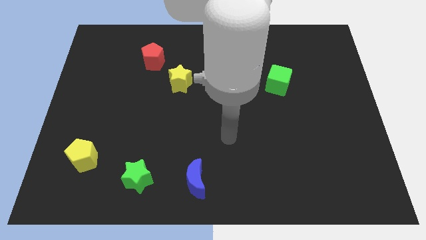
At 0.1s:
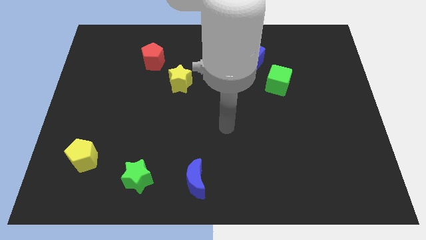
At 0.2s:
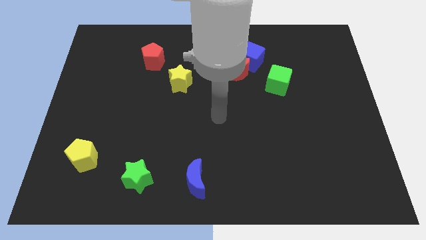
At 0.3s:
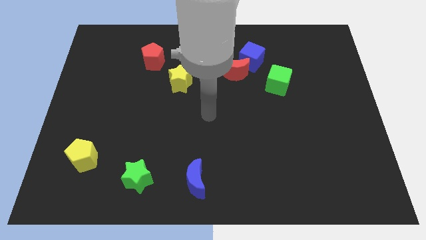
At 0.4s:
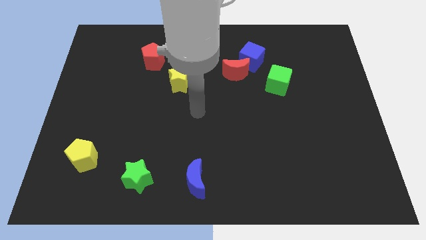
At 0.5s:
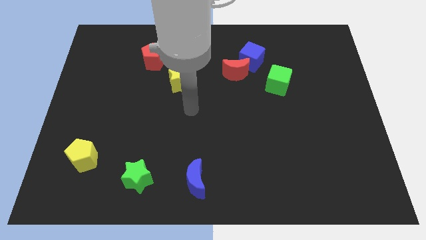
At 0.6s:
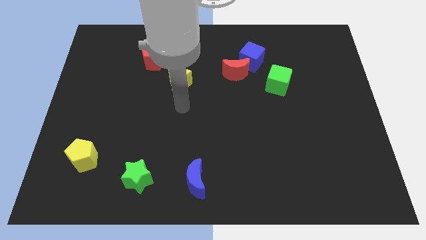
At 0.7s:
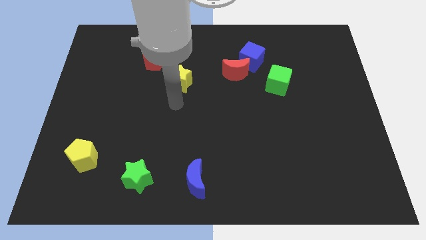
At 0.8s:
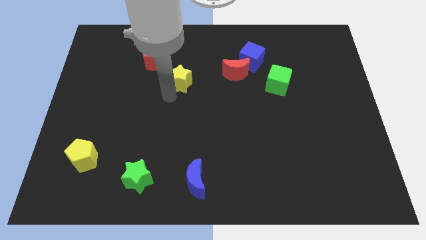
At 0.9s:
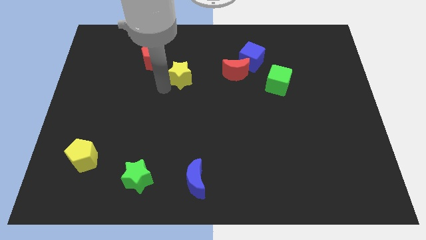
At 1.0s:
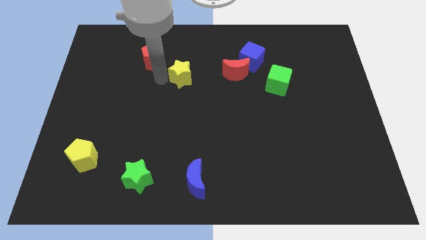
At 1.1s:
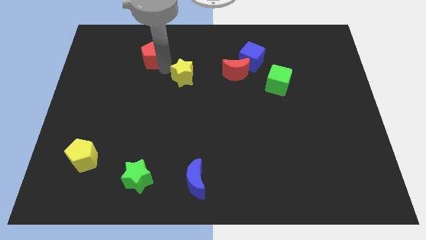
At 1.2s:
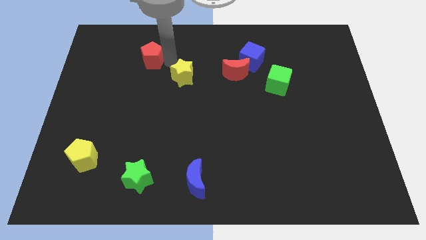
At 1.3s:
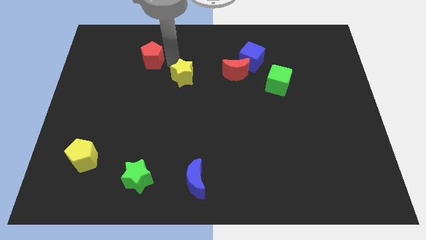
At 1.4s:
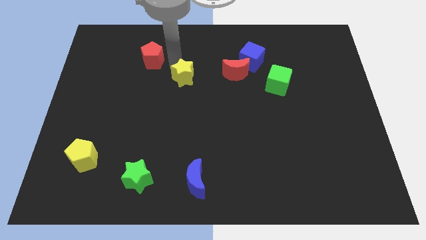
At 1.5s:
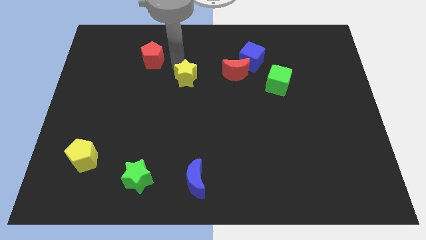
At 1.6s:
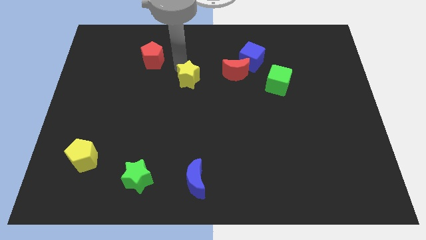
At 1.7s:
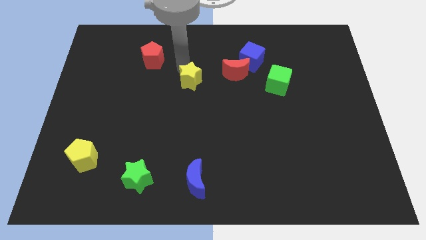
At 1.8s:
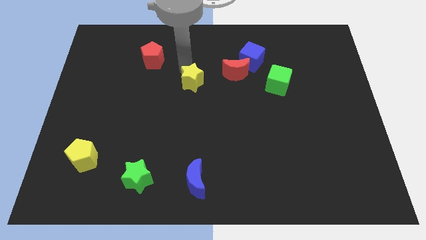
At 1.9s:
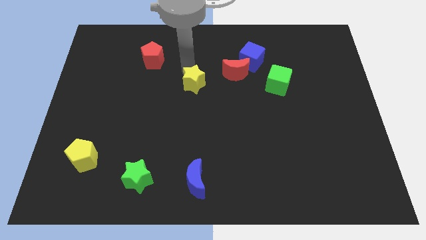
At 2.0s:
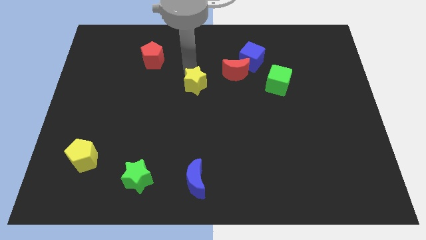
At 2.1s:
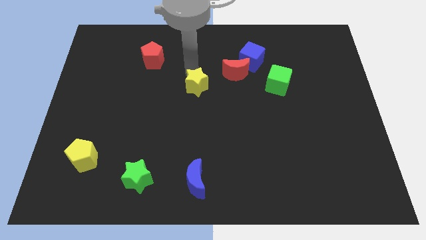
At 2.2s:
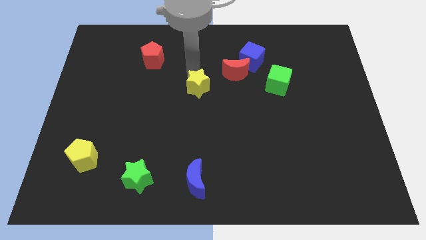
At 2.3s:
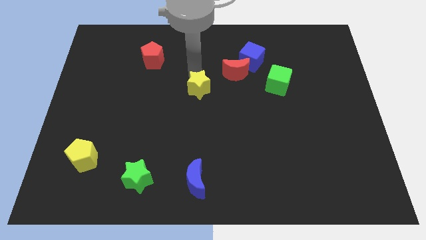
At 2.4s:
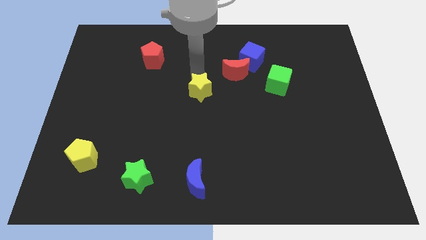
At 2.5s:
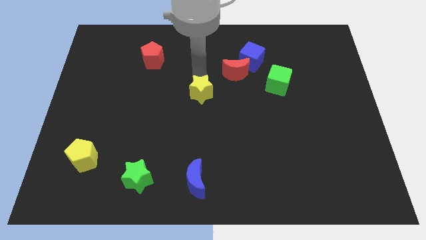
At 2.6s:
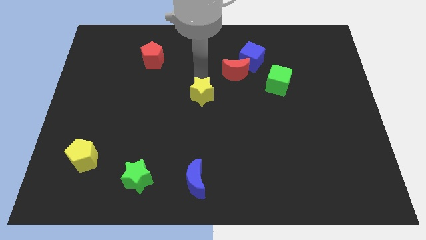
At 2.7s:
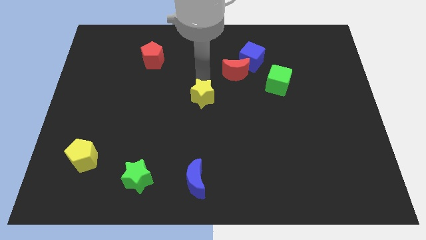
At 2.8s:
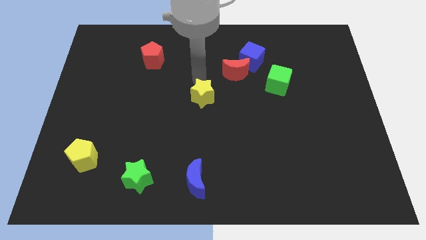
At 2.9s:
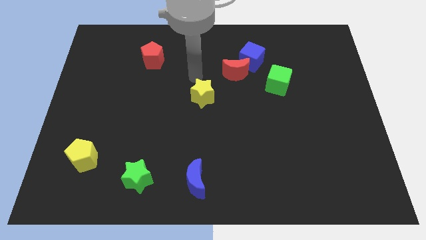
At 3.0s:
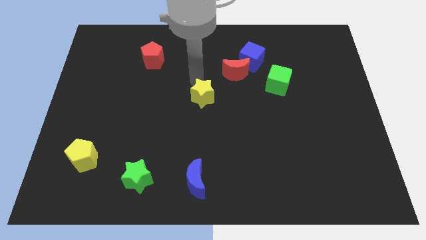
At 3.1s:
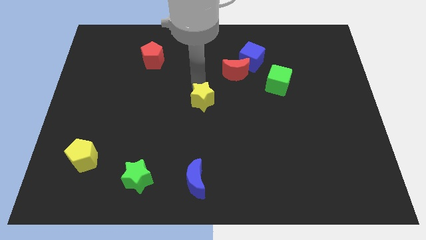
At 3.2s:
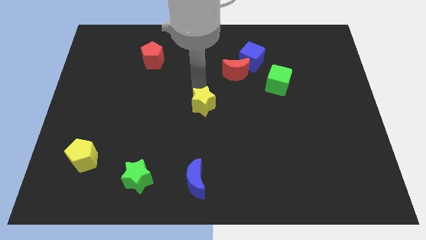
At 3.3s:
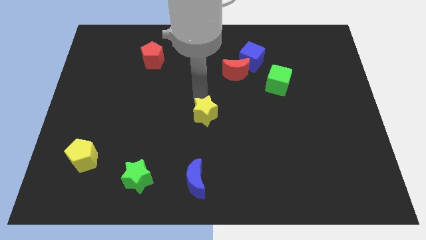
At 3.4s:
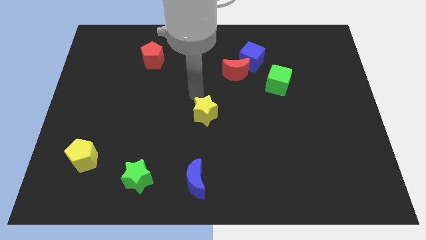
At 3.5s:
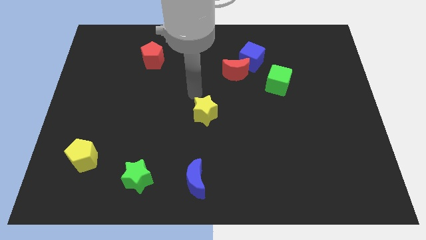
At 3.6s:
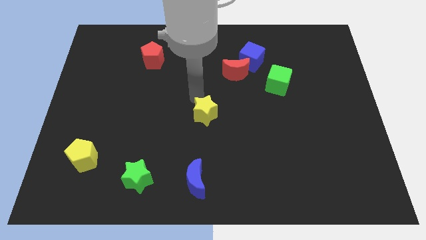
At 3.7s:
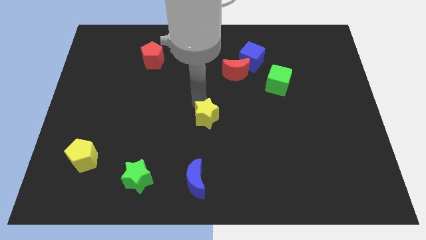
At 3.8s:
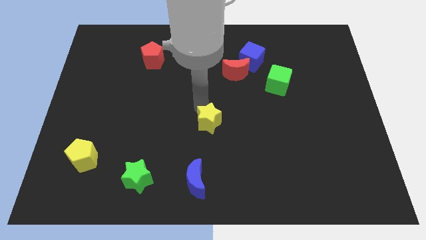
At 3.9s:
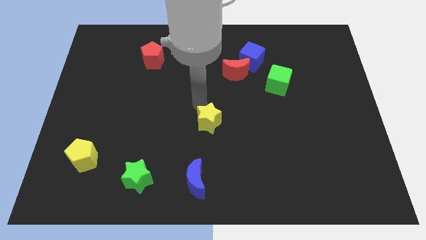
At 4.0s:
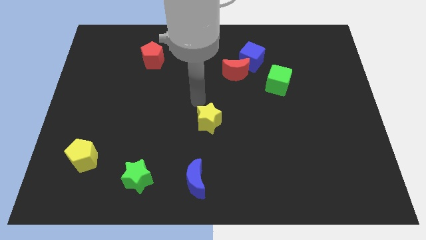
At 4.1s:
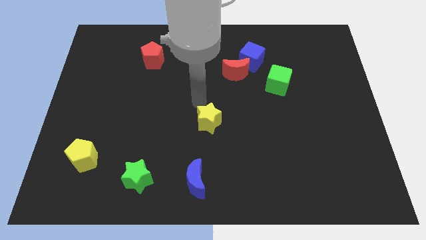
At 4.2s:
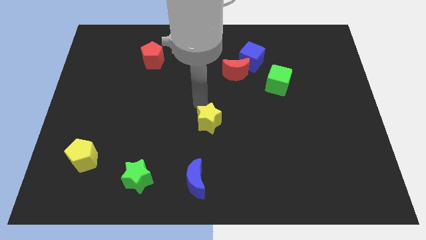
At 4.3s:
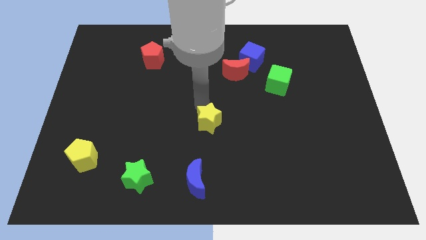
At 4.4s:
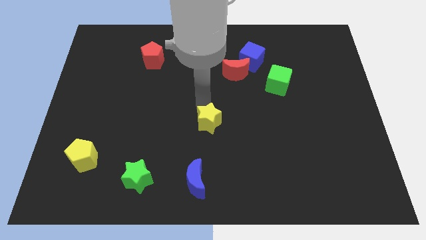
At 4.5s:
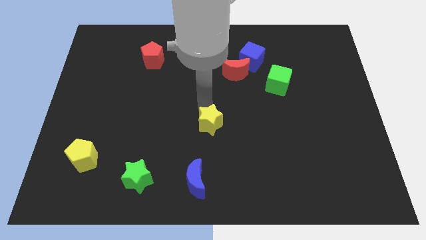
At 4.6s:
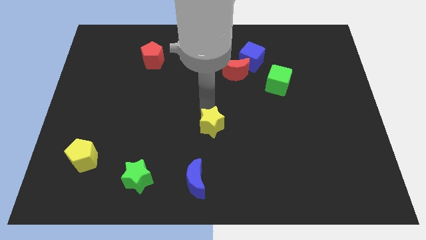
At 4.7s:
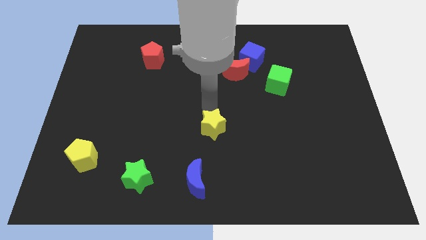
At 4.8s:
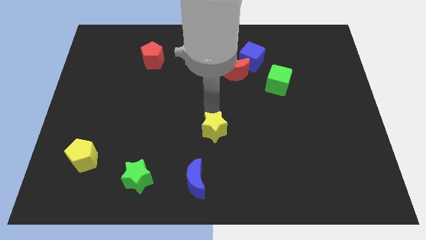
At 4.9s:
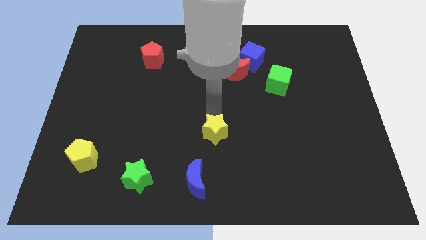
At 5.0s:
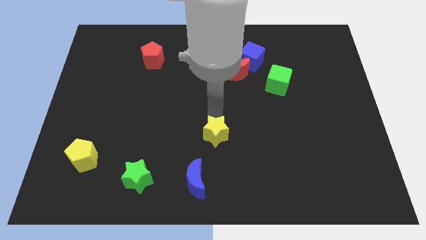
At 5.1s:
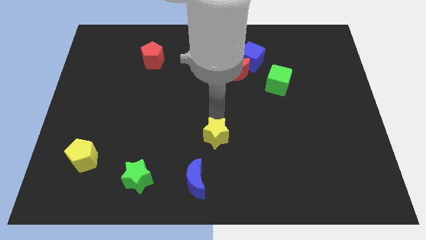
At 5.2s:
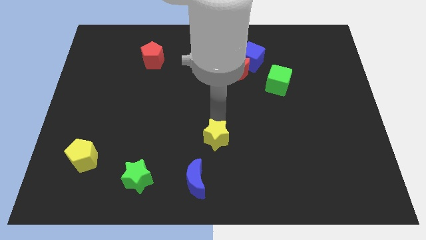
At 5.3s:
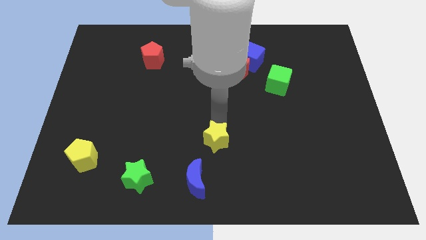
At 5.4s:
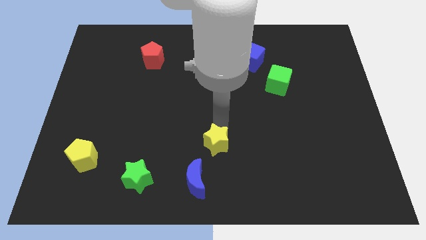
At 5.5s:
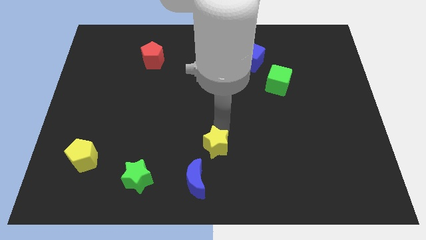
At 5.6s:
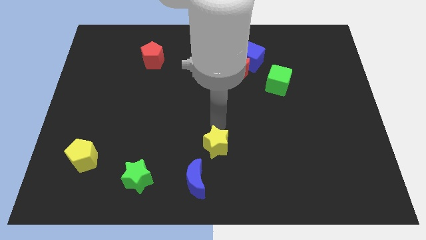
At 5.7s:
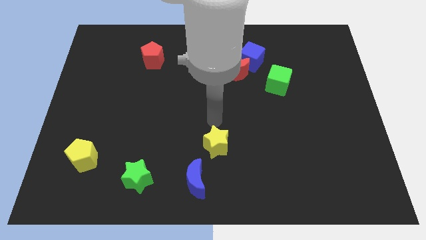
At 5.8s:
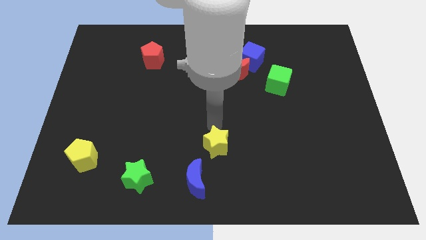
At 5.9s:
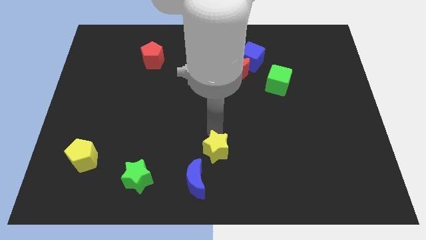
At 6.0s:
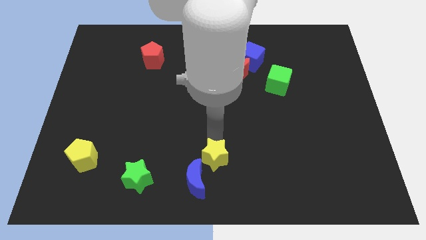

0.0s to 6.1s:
move the yellow star to the bottom

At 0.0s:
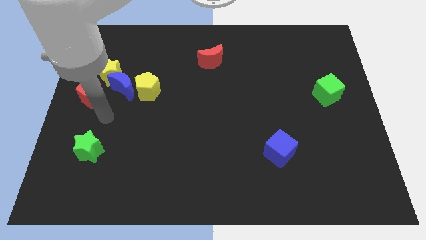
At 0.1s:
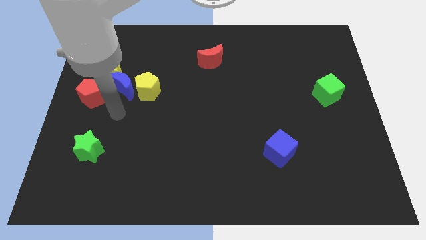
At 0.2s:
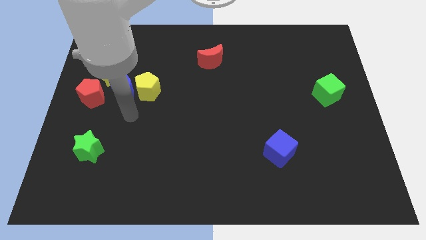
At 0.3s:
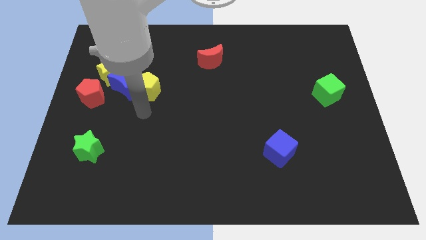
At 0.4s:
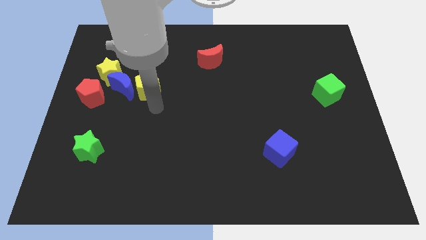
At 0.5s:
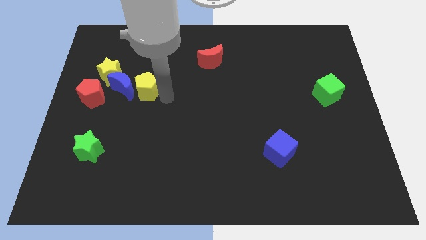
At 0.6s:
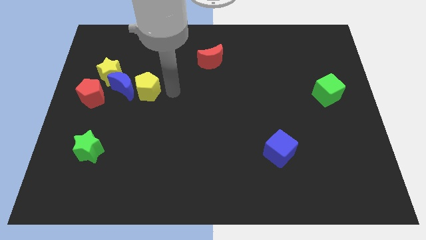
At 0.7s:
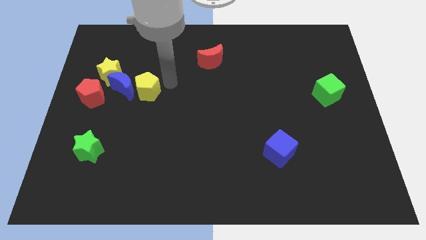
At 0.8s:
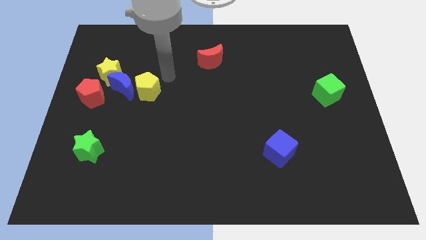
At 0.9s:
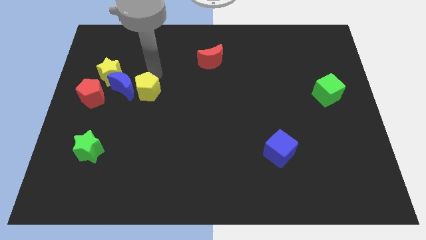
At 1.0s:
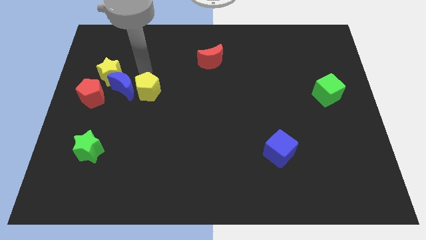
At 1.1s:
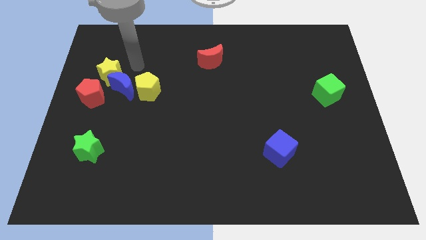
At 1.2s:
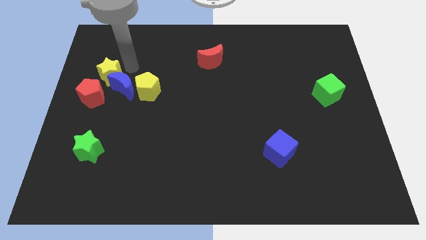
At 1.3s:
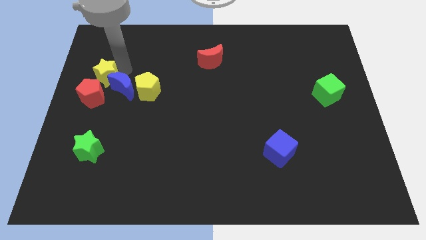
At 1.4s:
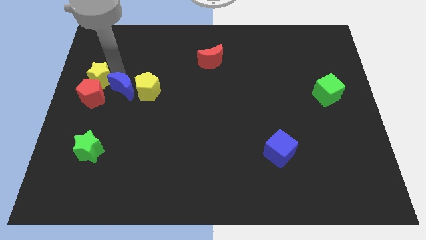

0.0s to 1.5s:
push the yellow star to the left side of the board

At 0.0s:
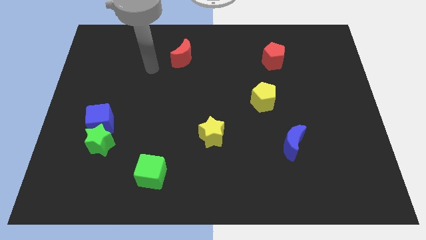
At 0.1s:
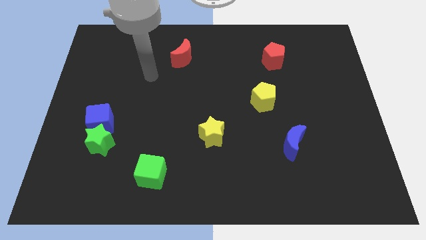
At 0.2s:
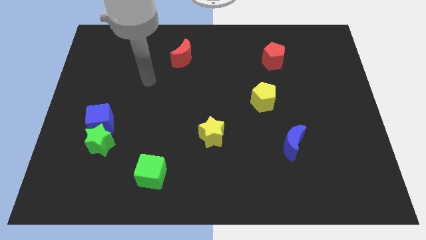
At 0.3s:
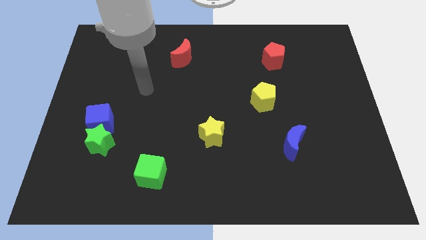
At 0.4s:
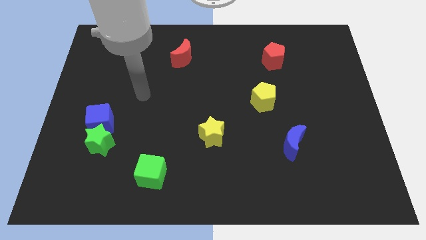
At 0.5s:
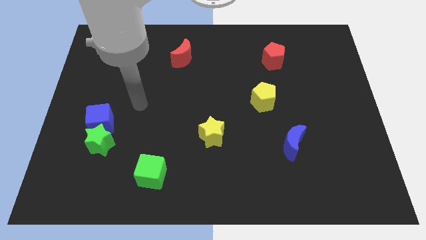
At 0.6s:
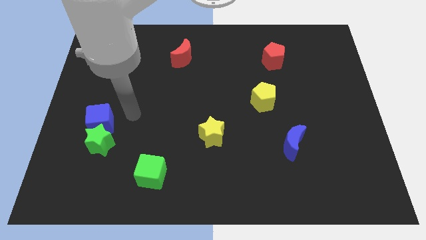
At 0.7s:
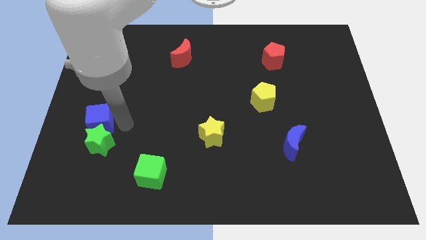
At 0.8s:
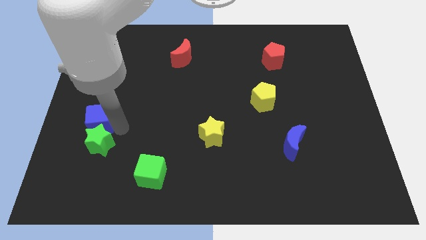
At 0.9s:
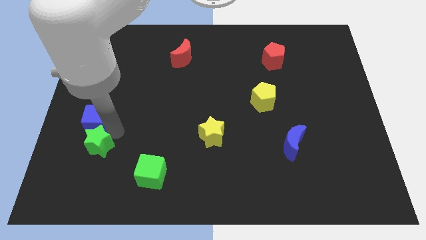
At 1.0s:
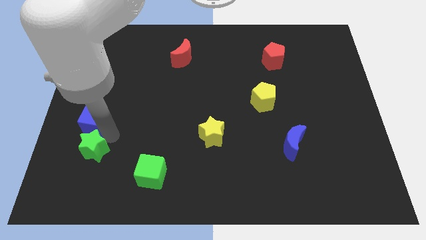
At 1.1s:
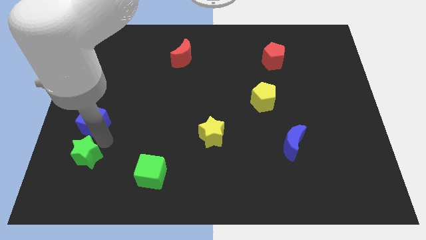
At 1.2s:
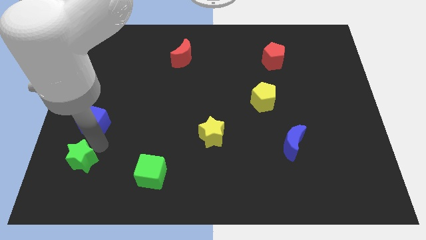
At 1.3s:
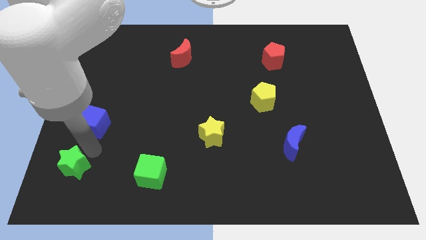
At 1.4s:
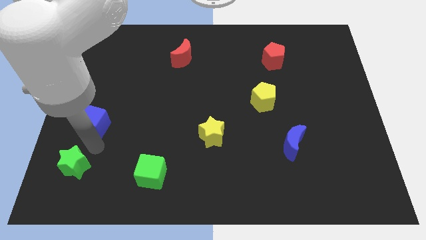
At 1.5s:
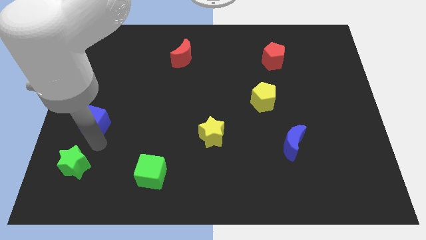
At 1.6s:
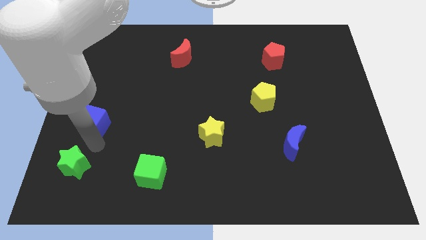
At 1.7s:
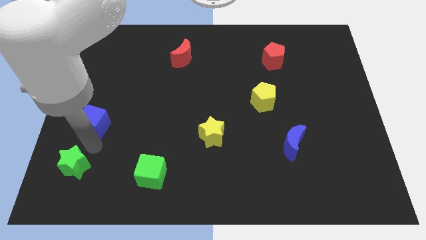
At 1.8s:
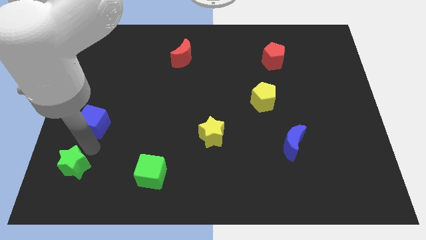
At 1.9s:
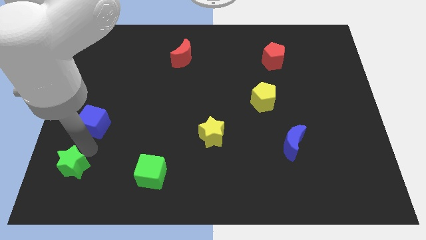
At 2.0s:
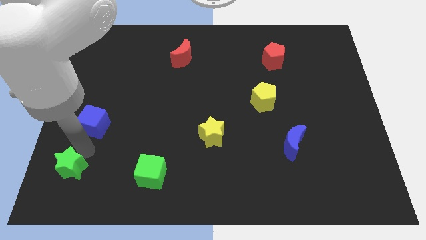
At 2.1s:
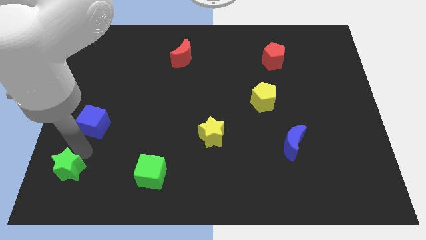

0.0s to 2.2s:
put the green star to the bottom left corner
